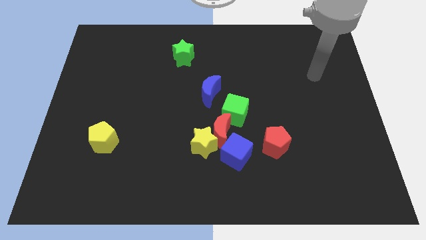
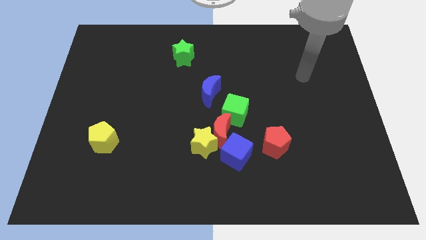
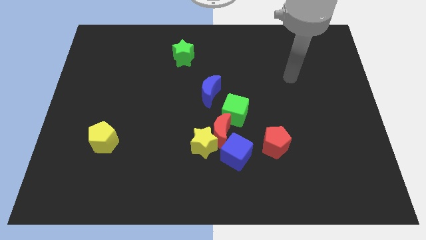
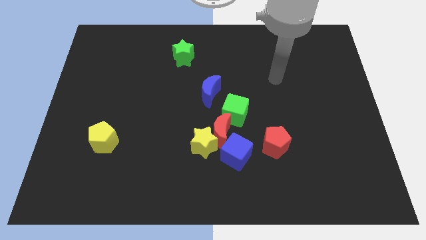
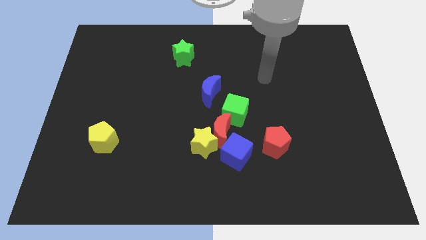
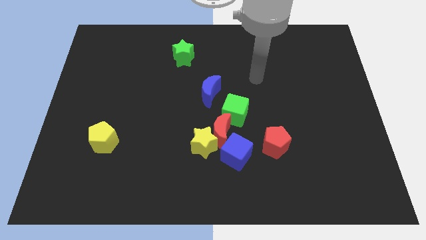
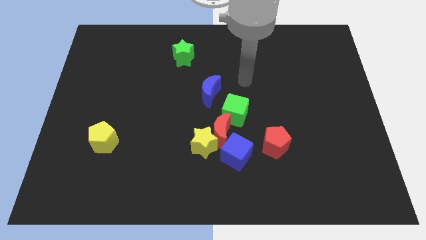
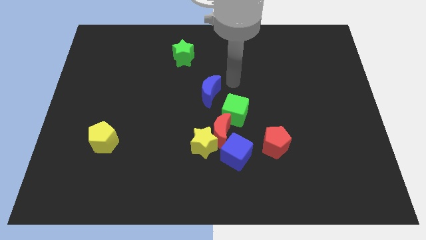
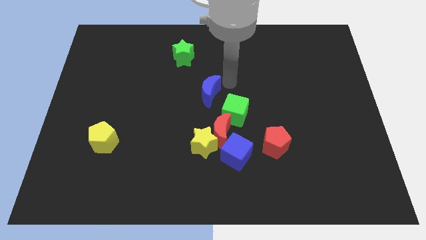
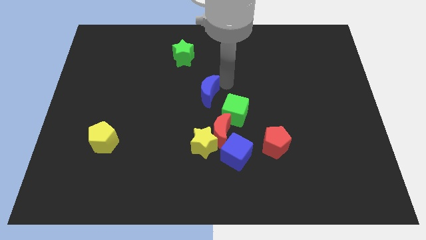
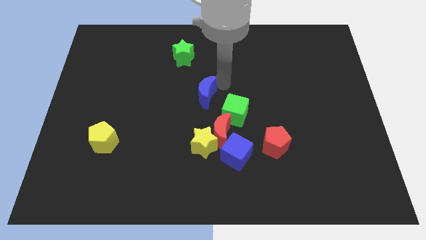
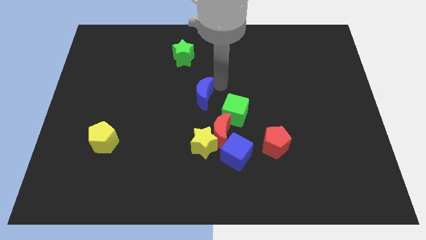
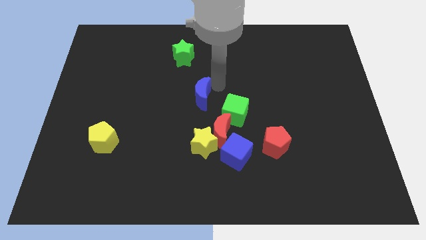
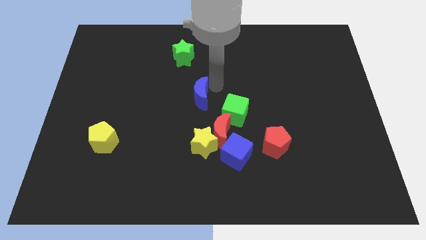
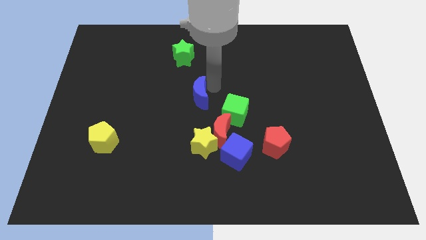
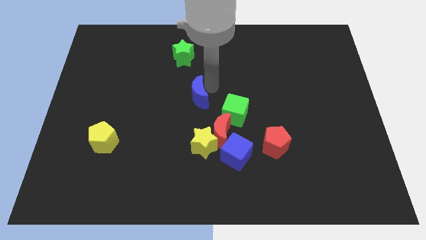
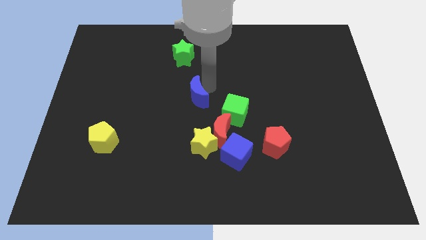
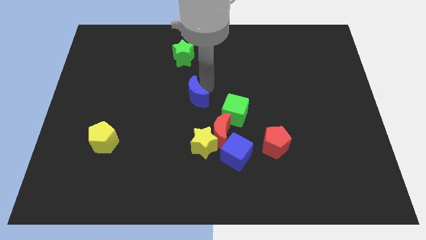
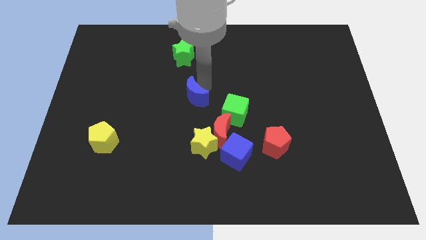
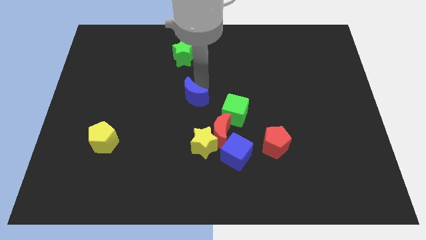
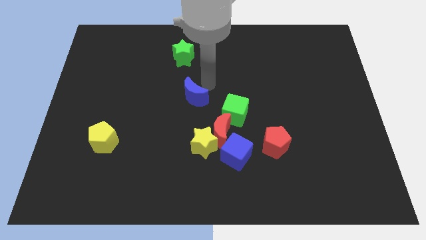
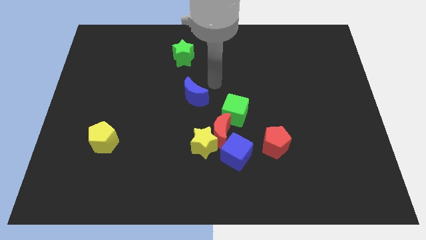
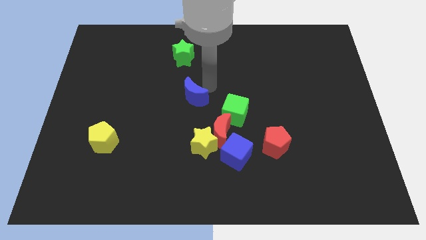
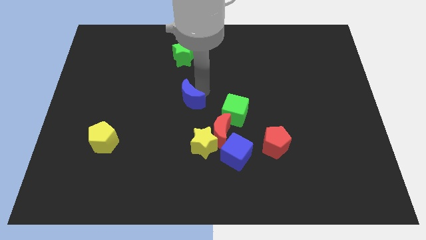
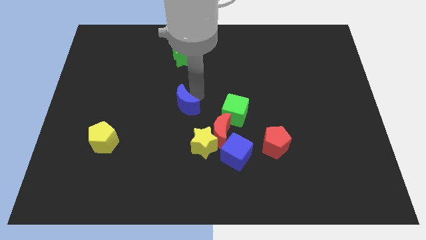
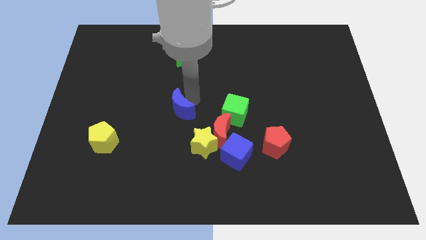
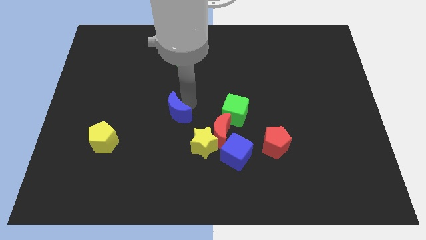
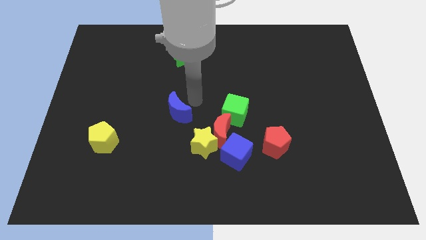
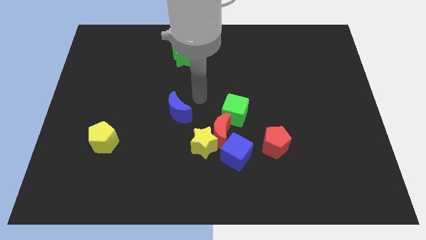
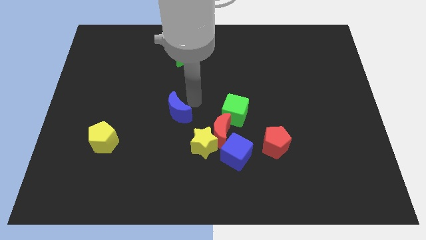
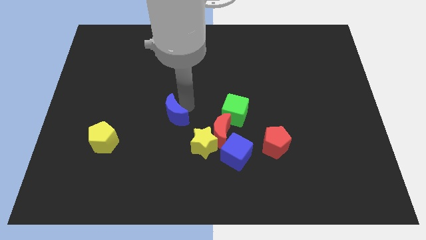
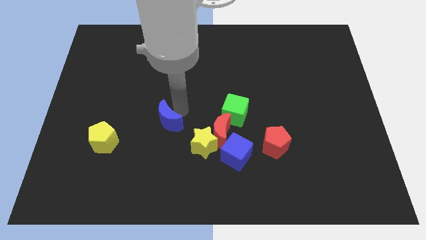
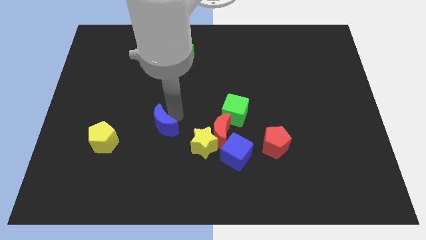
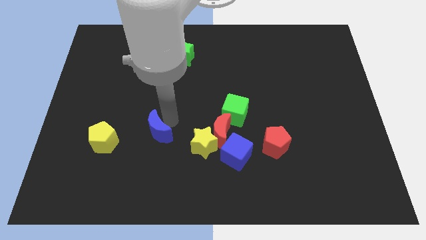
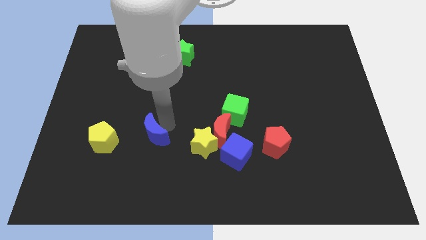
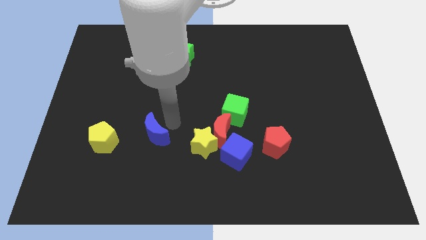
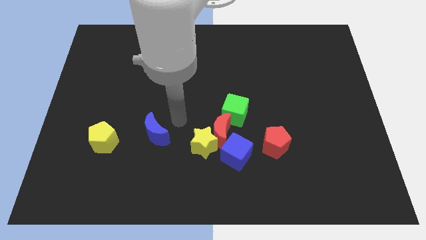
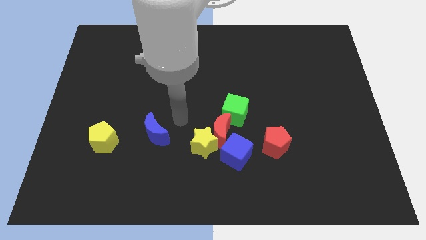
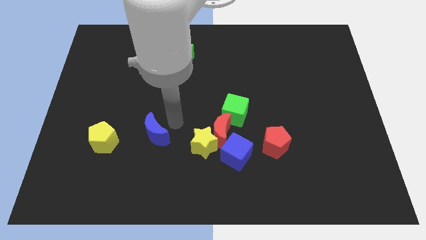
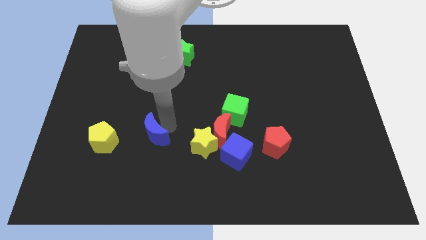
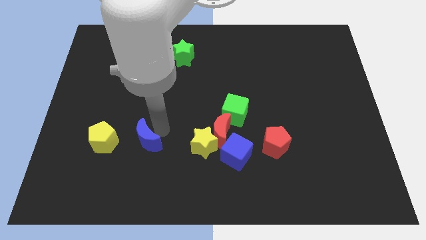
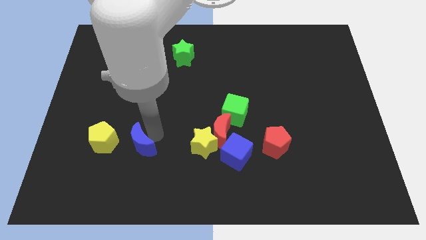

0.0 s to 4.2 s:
slide the blue moon down and then to the left

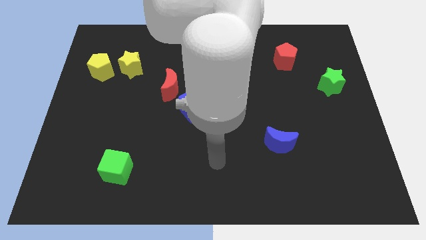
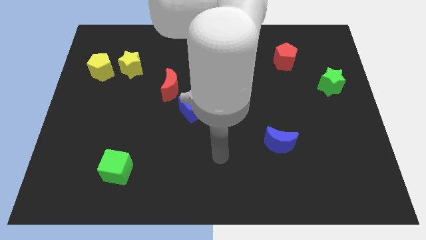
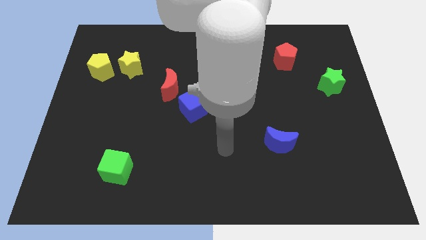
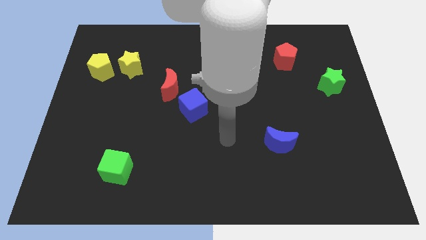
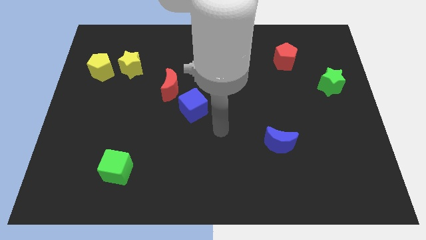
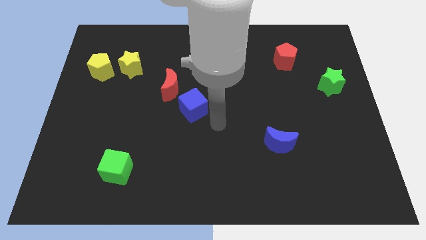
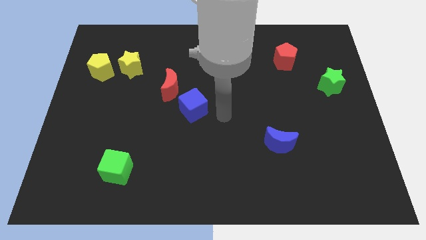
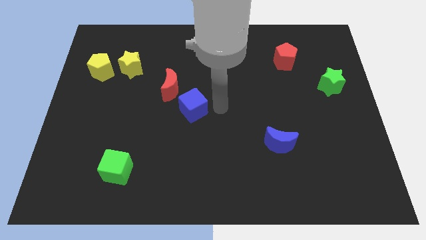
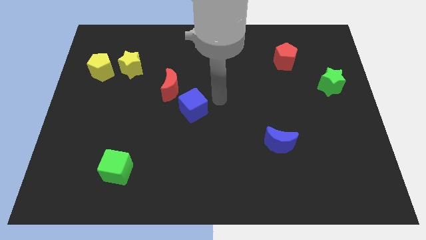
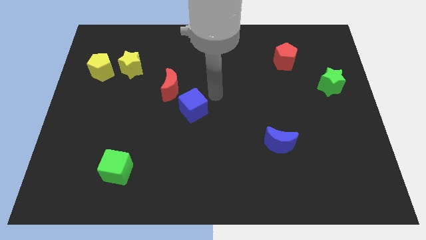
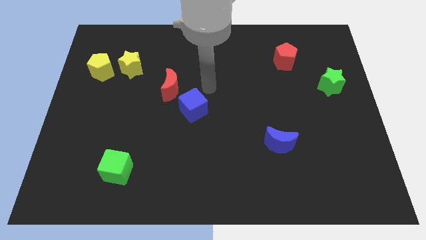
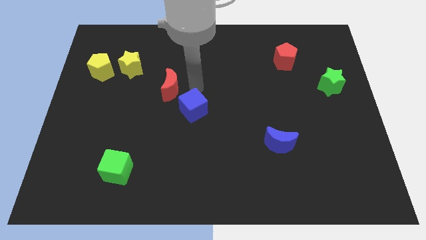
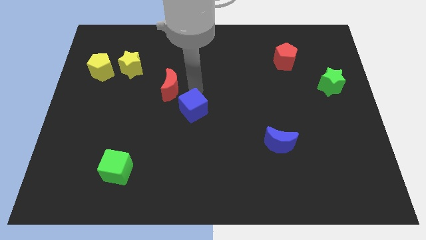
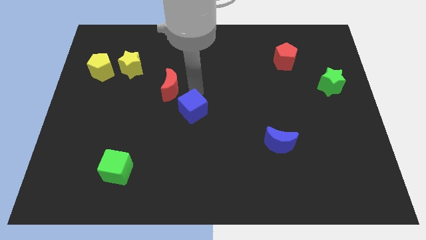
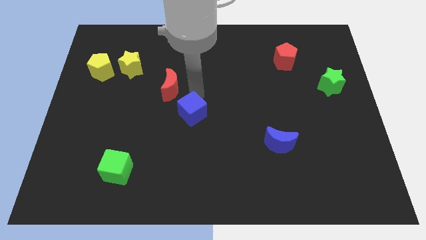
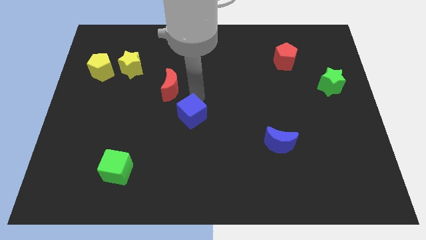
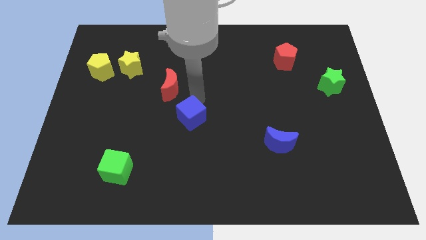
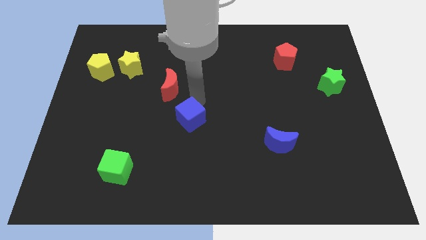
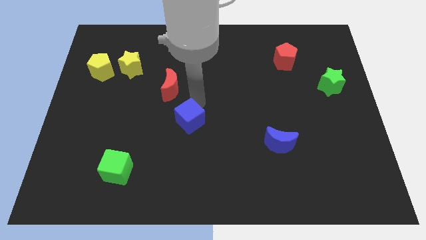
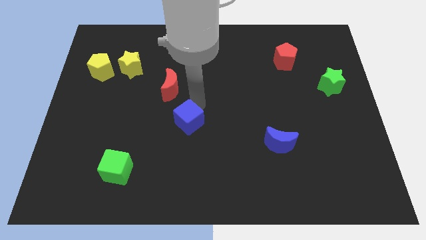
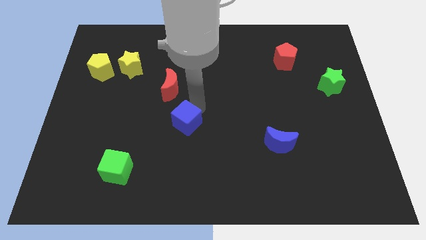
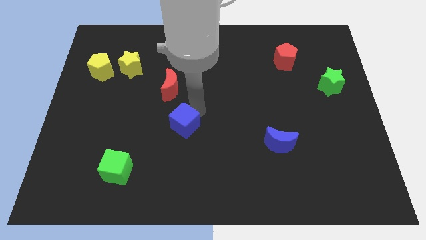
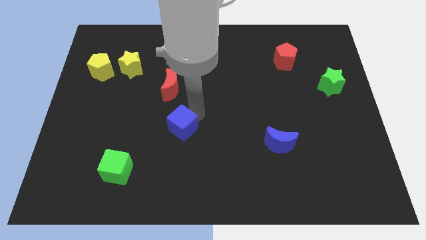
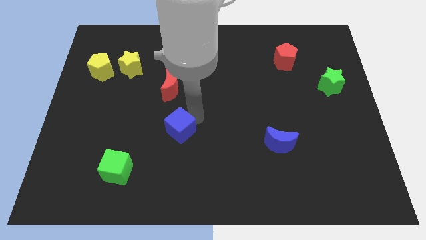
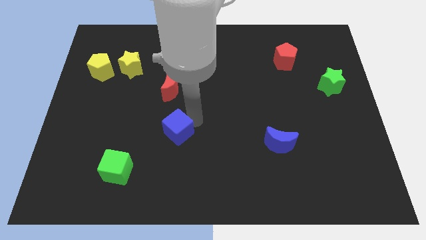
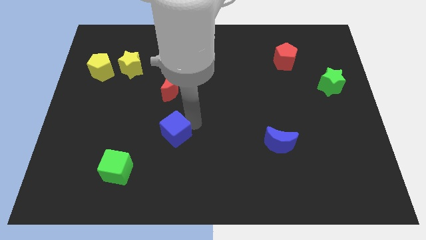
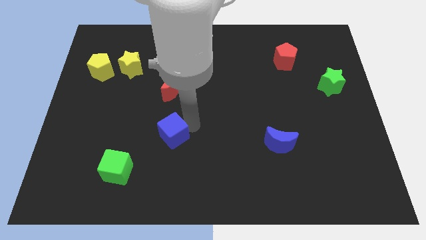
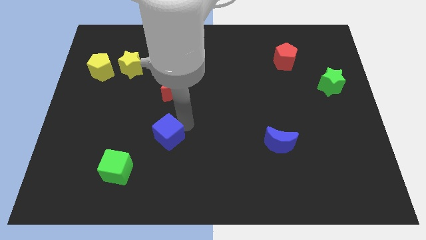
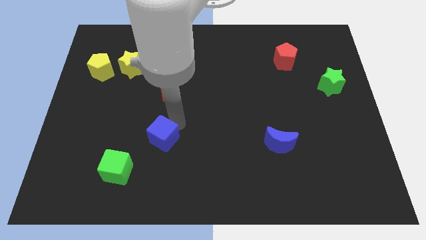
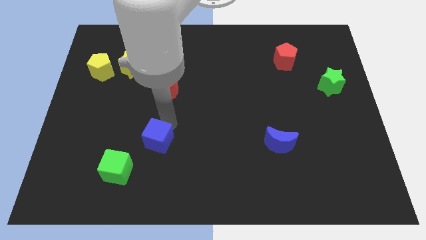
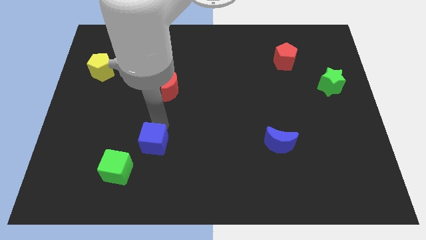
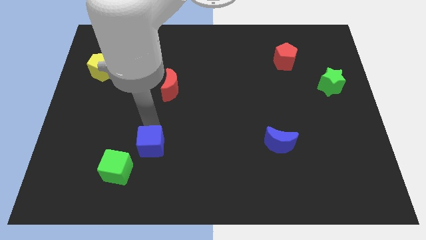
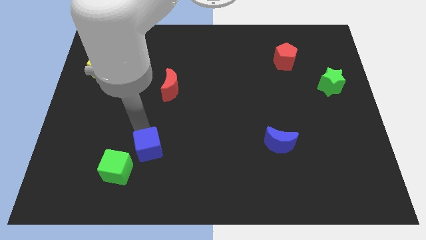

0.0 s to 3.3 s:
slide the blue cube downwards a little

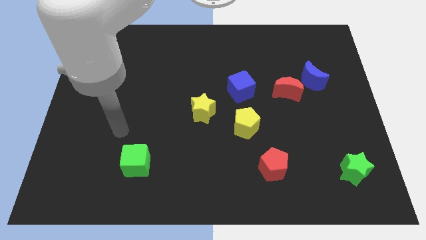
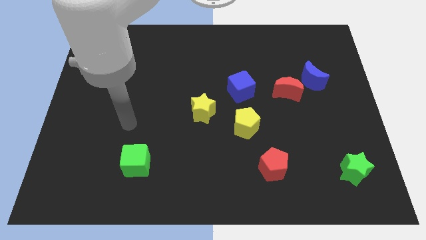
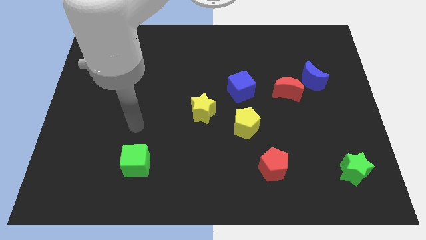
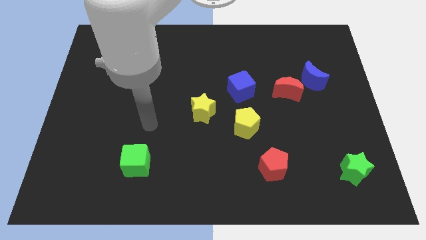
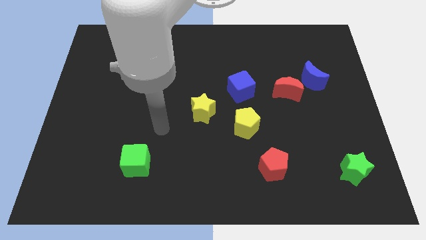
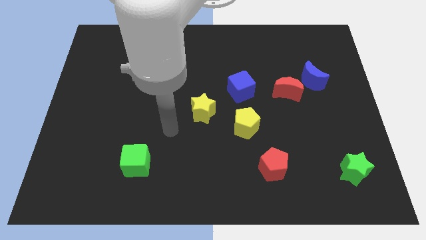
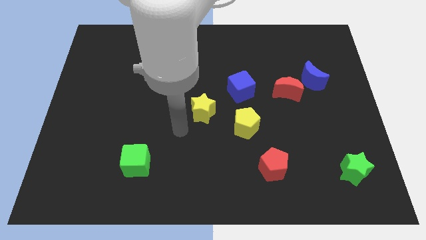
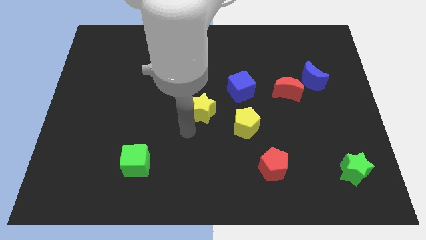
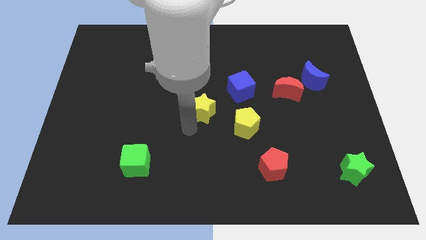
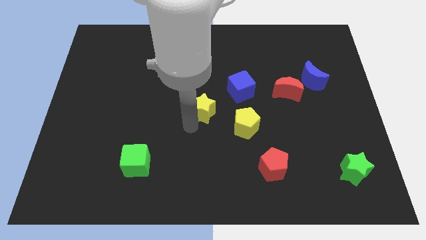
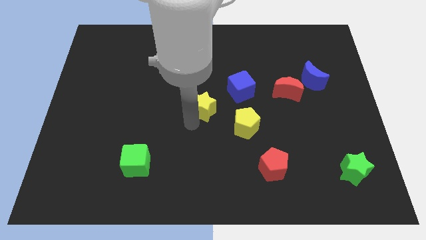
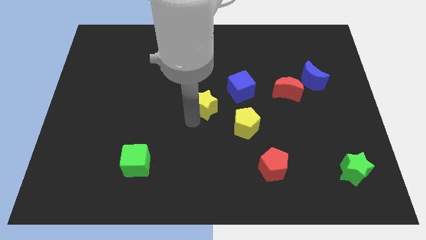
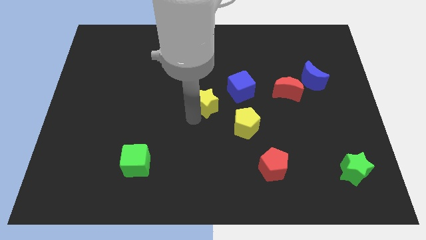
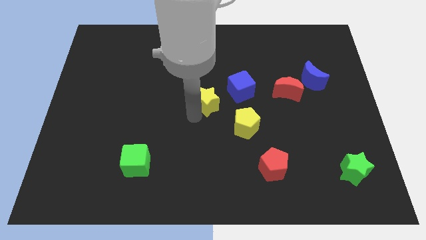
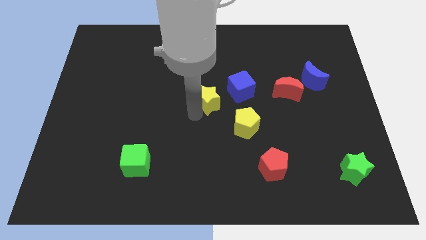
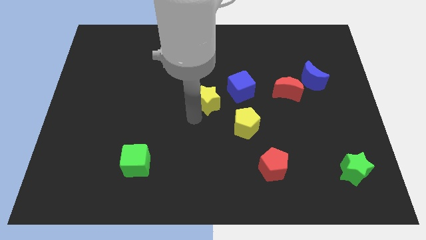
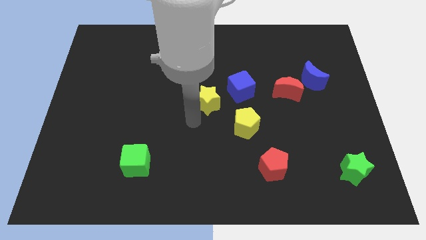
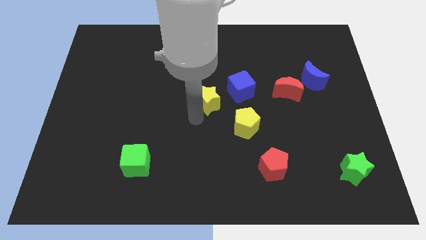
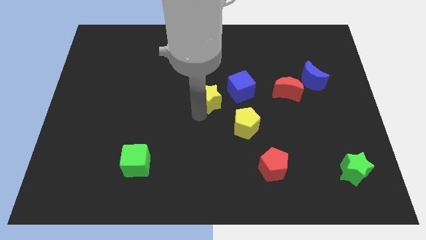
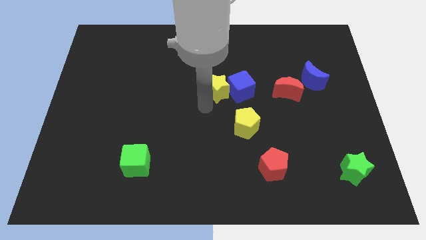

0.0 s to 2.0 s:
slightly push the yellow star upwards and then to the right
